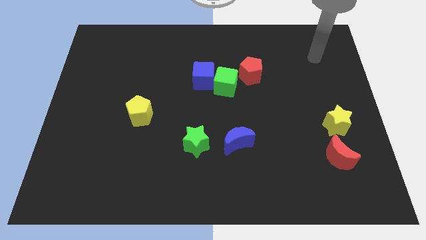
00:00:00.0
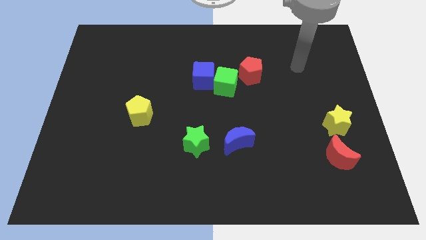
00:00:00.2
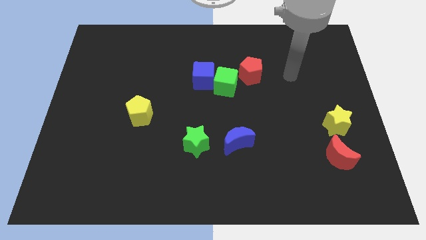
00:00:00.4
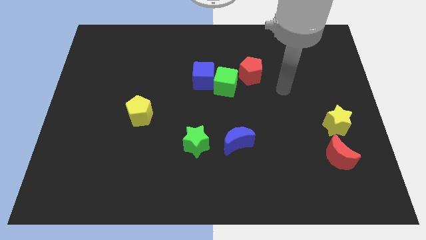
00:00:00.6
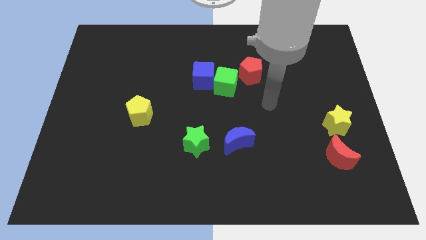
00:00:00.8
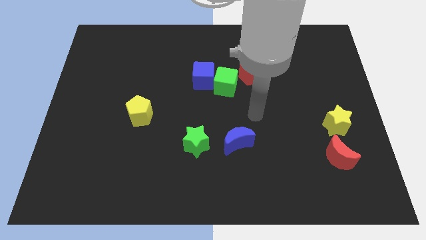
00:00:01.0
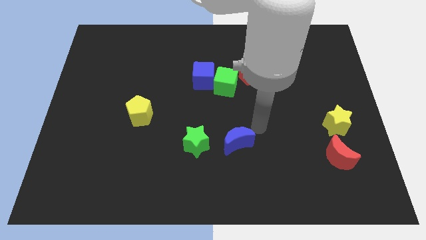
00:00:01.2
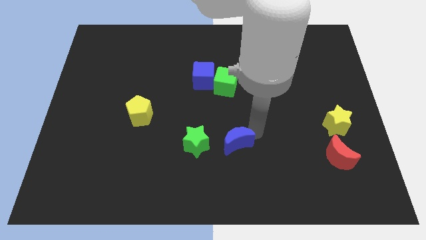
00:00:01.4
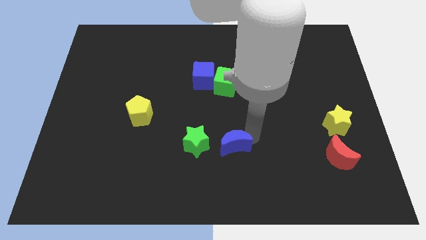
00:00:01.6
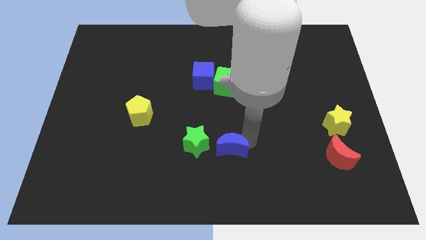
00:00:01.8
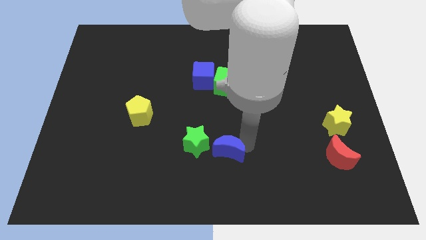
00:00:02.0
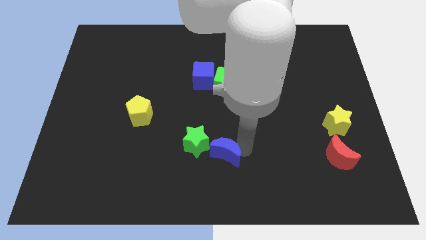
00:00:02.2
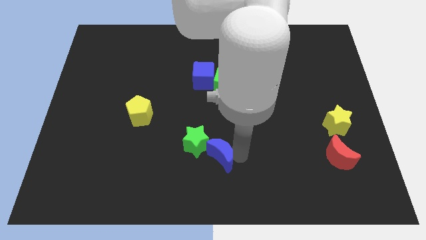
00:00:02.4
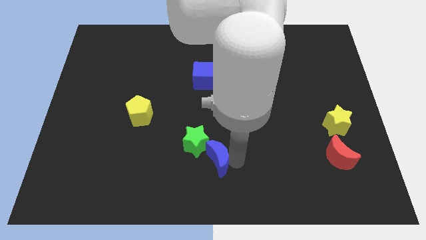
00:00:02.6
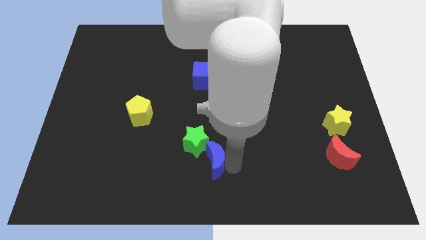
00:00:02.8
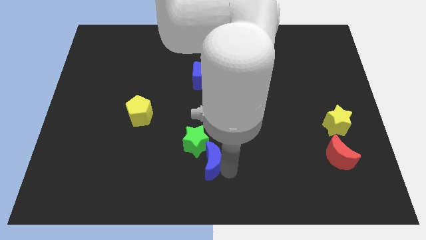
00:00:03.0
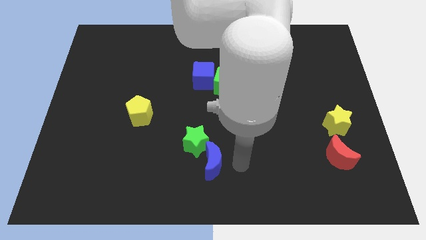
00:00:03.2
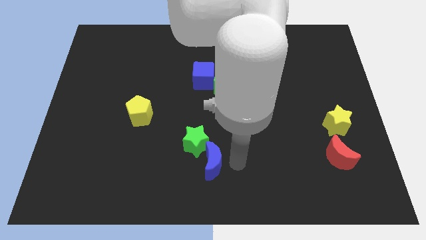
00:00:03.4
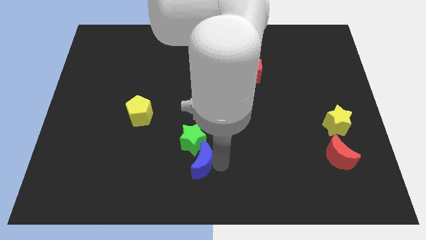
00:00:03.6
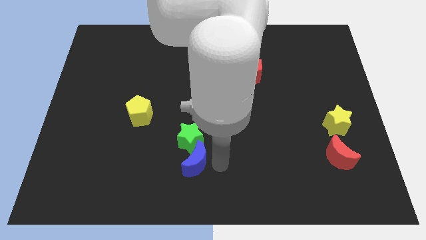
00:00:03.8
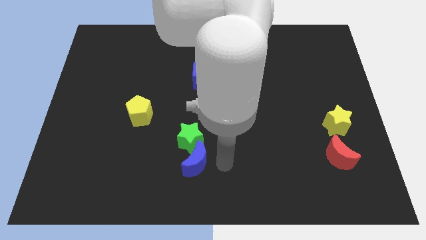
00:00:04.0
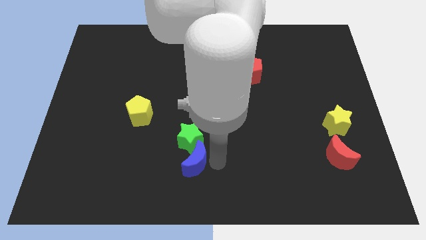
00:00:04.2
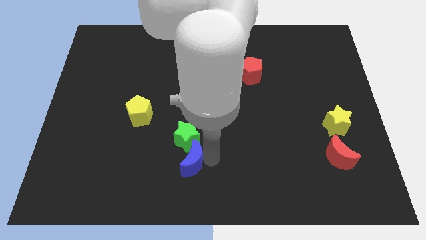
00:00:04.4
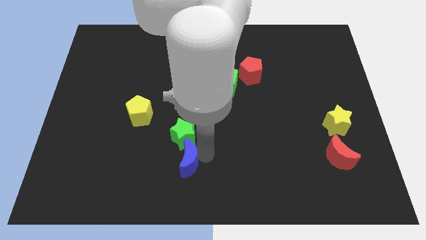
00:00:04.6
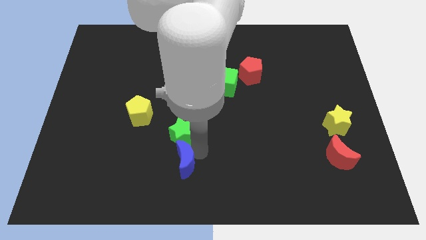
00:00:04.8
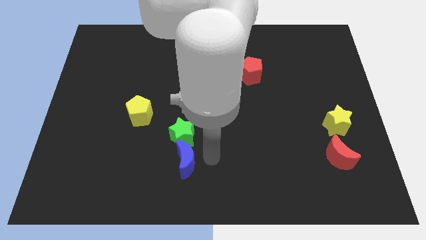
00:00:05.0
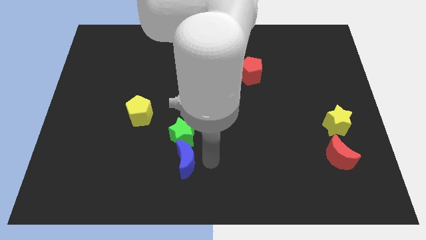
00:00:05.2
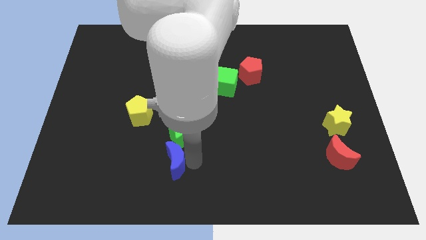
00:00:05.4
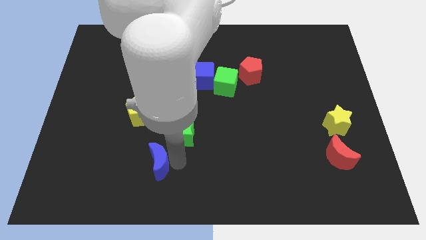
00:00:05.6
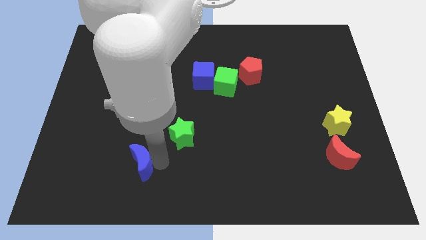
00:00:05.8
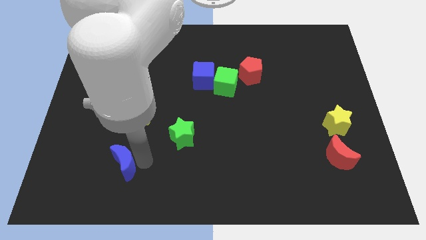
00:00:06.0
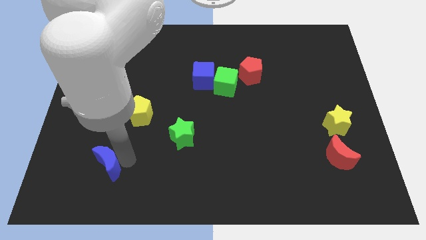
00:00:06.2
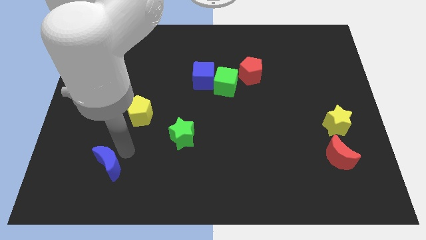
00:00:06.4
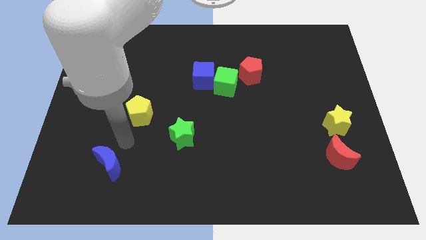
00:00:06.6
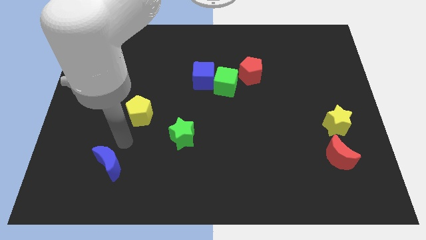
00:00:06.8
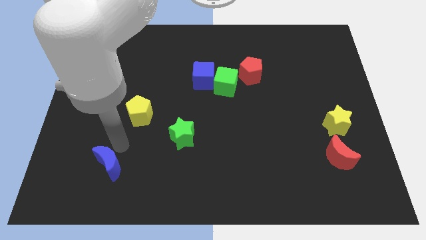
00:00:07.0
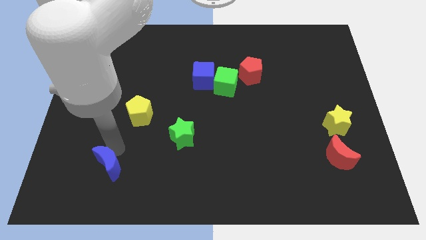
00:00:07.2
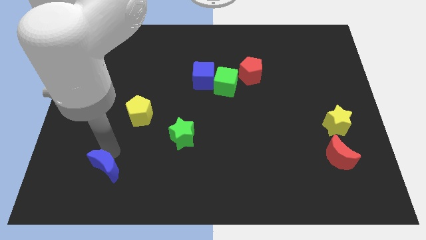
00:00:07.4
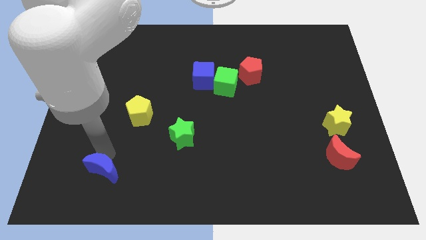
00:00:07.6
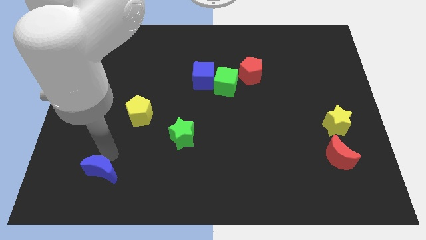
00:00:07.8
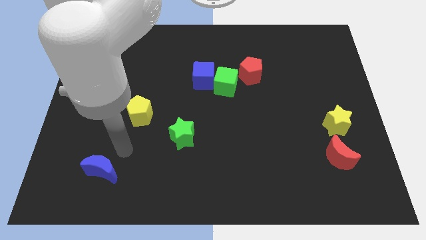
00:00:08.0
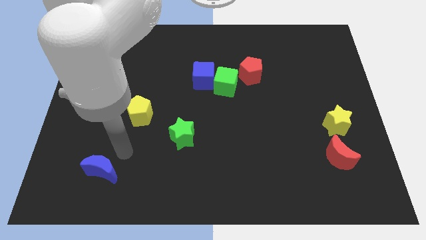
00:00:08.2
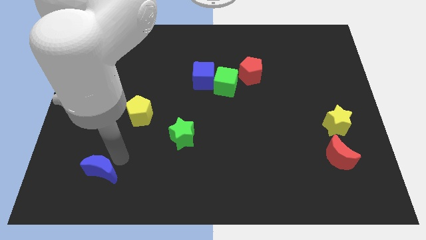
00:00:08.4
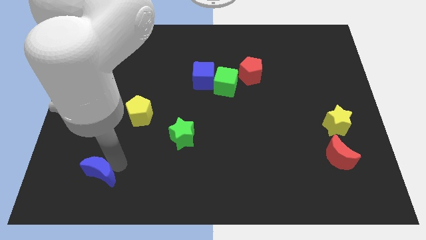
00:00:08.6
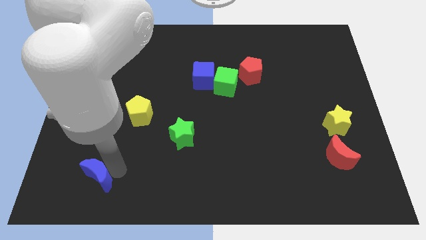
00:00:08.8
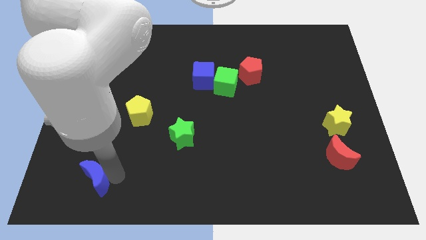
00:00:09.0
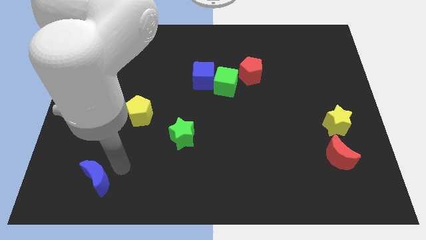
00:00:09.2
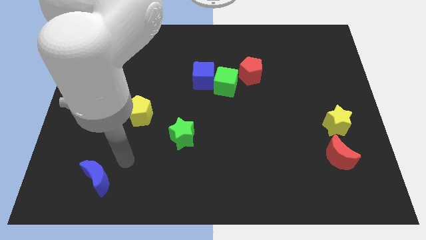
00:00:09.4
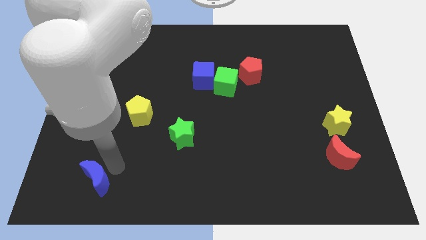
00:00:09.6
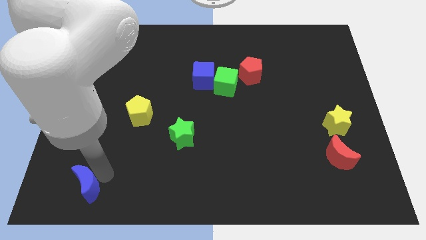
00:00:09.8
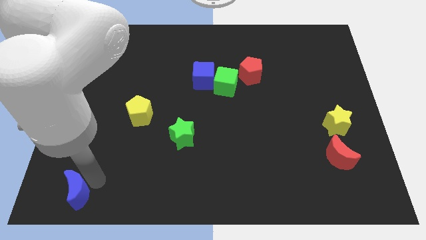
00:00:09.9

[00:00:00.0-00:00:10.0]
push the blue moon to the bottom left
